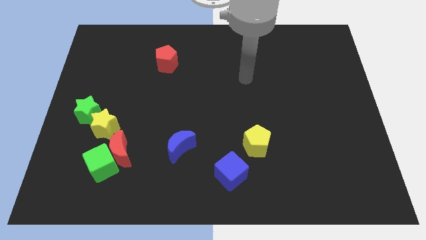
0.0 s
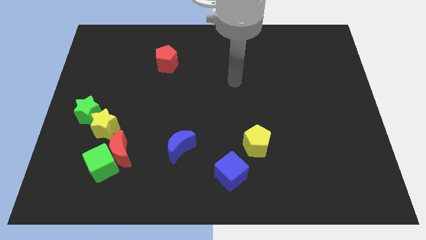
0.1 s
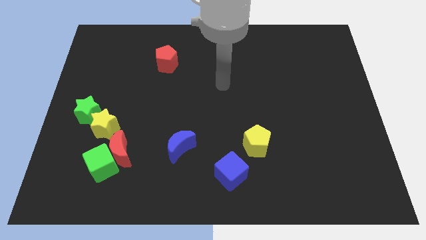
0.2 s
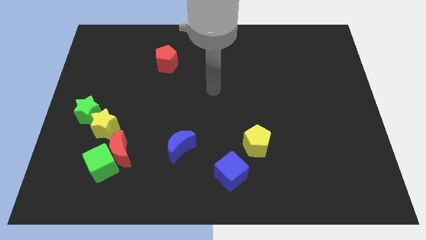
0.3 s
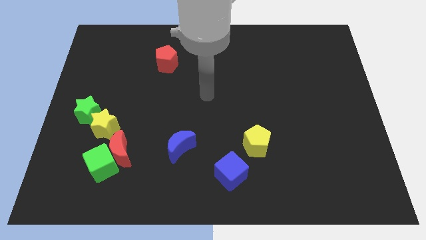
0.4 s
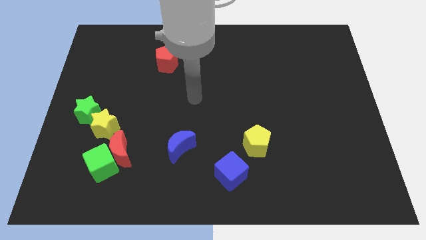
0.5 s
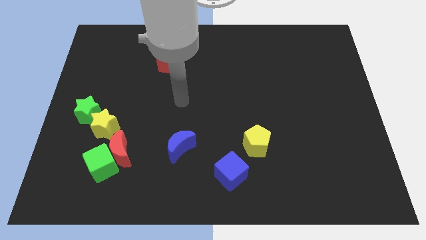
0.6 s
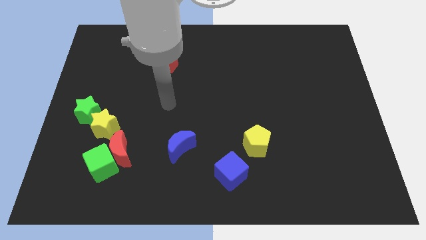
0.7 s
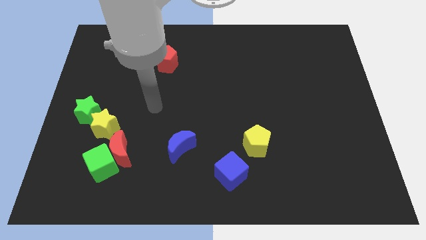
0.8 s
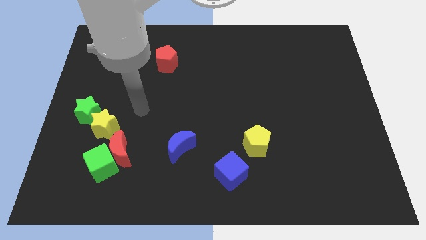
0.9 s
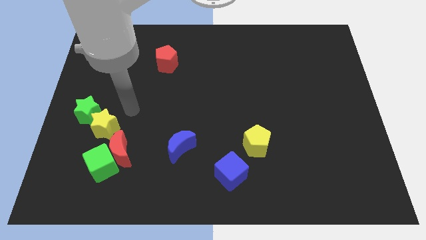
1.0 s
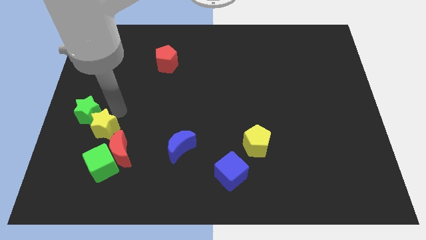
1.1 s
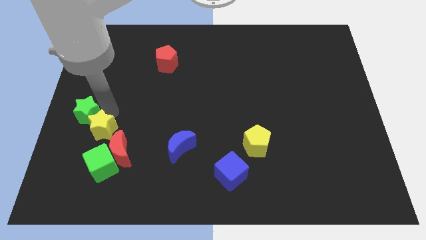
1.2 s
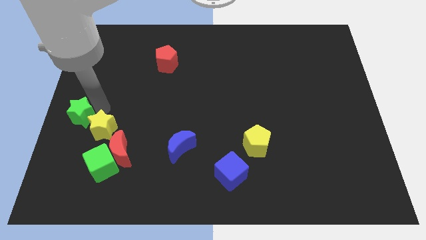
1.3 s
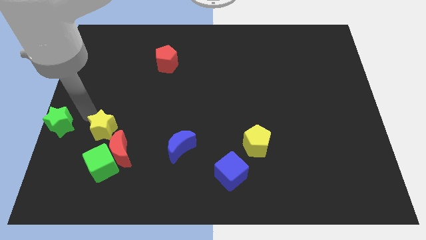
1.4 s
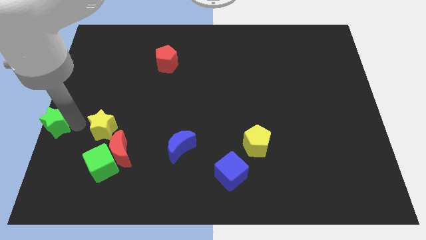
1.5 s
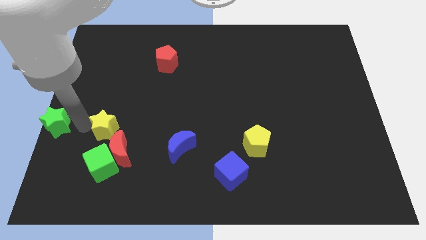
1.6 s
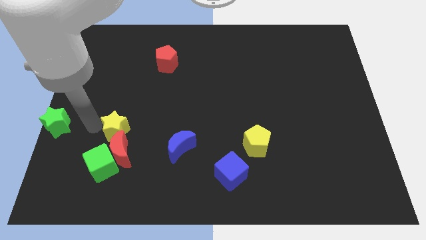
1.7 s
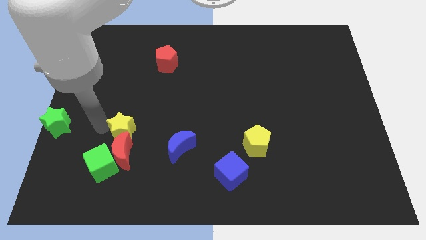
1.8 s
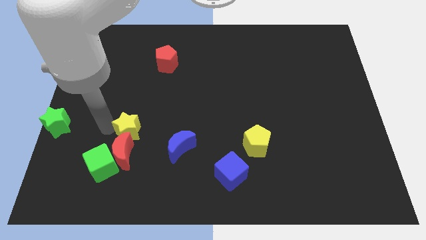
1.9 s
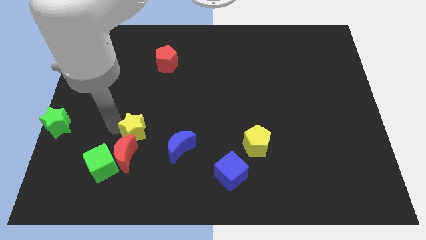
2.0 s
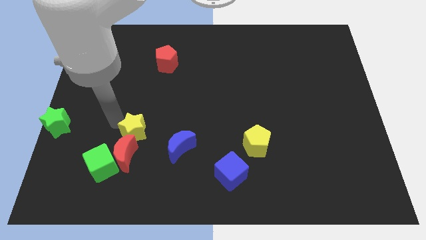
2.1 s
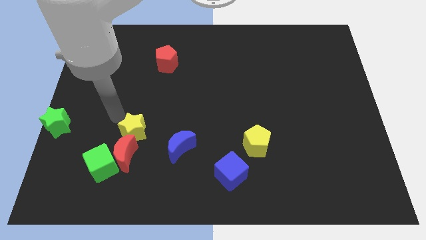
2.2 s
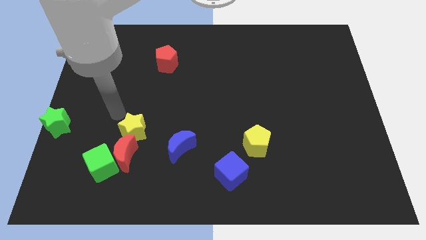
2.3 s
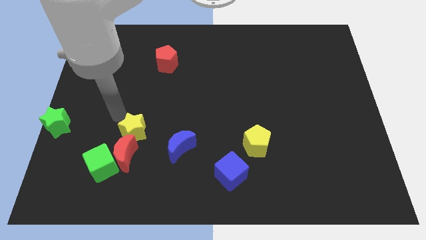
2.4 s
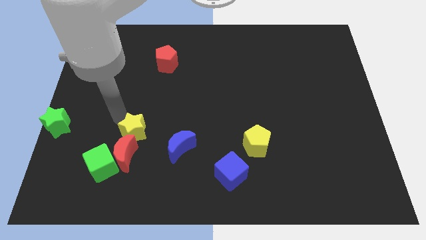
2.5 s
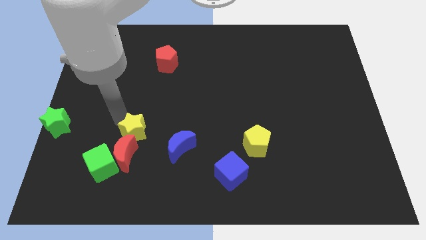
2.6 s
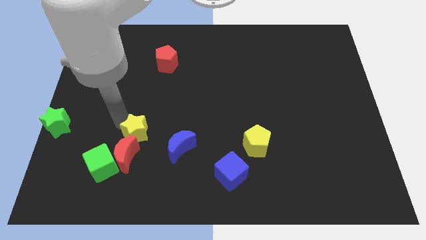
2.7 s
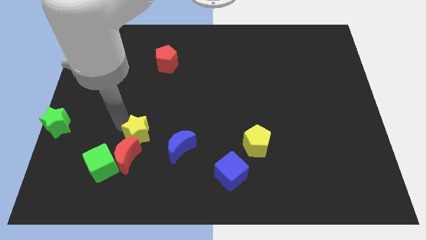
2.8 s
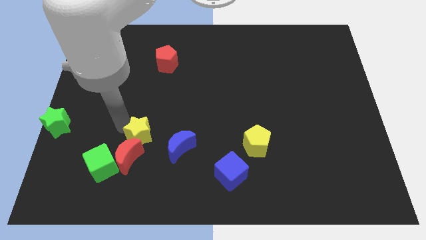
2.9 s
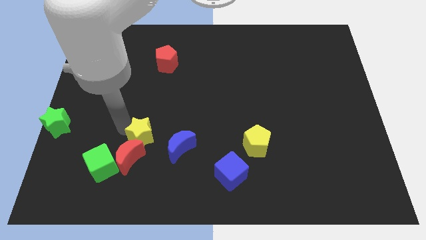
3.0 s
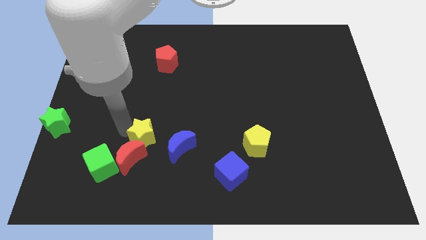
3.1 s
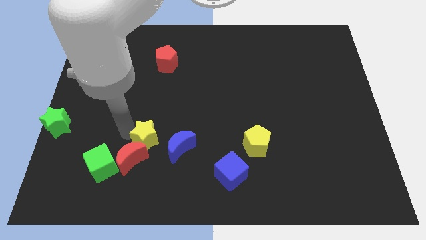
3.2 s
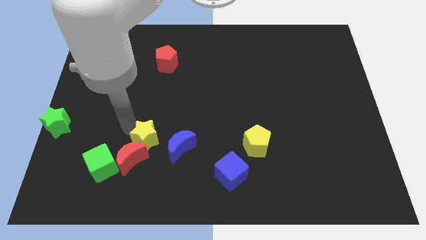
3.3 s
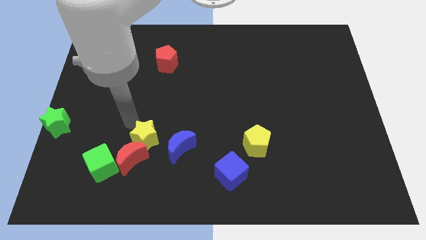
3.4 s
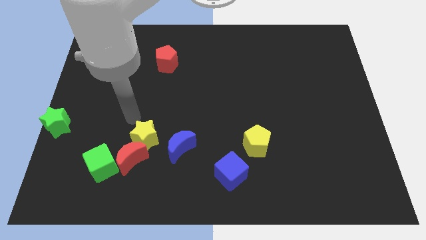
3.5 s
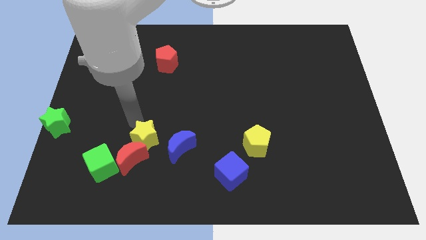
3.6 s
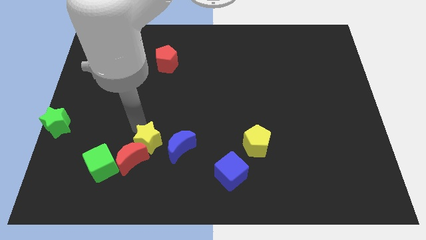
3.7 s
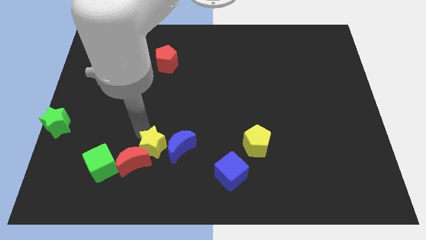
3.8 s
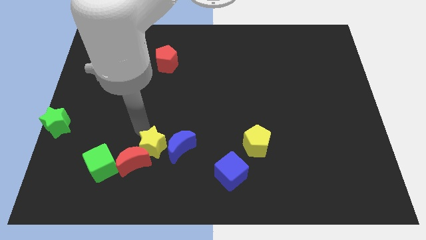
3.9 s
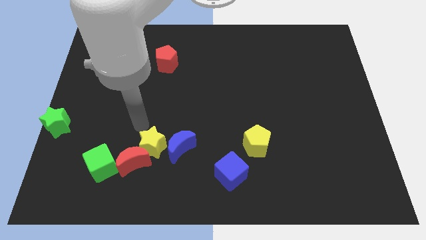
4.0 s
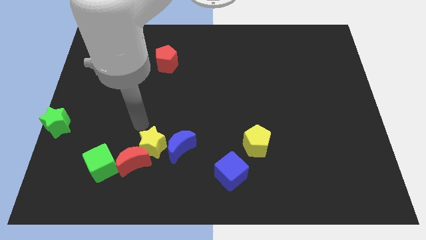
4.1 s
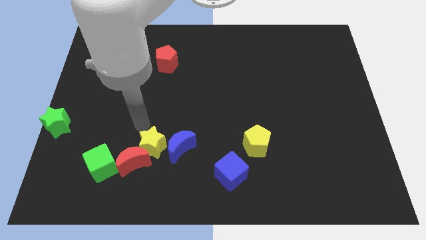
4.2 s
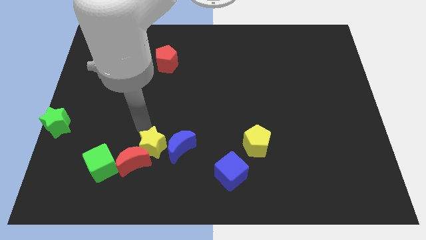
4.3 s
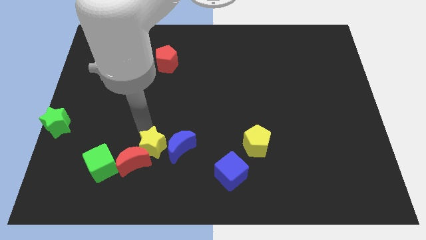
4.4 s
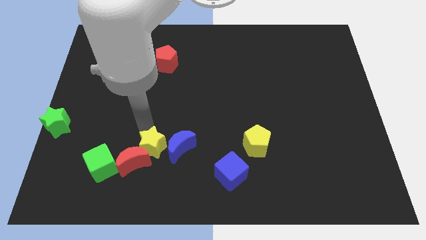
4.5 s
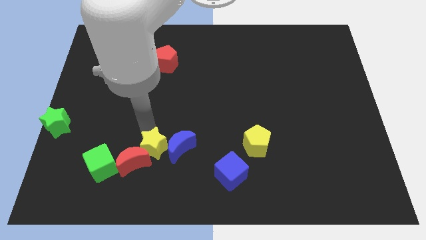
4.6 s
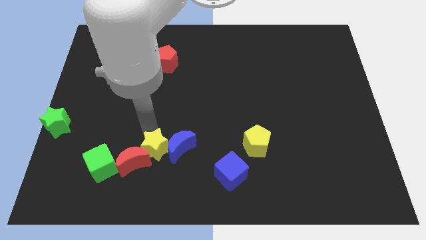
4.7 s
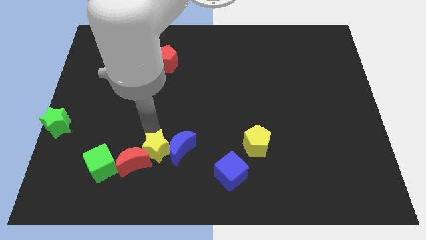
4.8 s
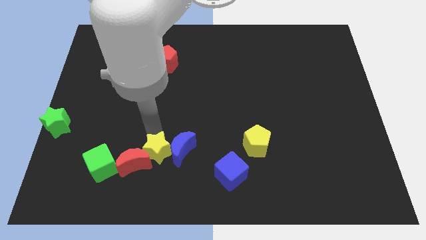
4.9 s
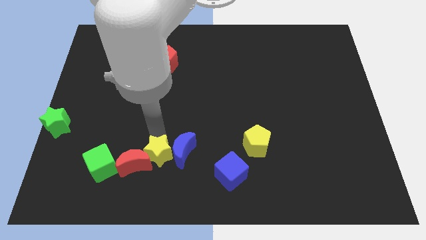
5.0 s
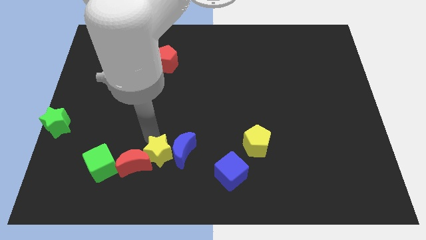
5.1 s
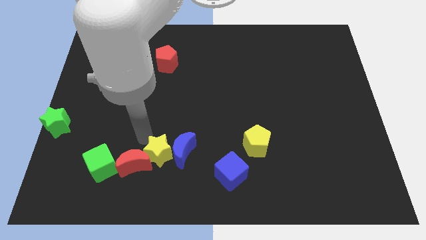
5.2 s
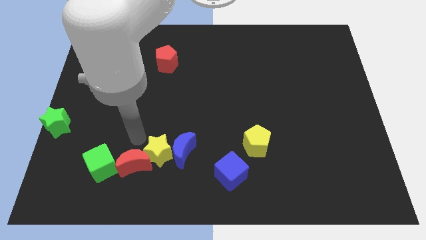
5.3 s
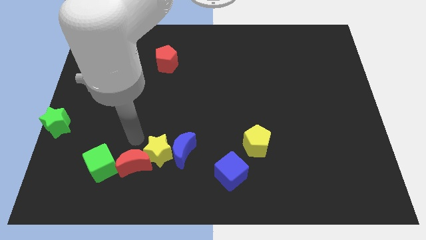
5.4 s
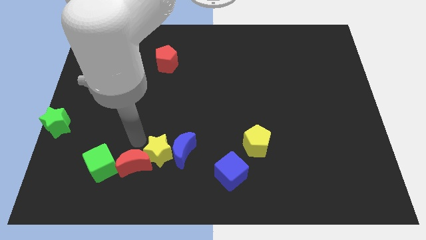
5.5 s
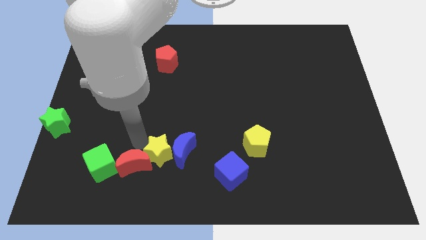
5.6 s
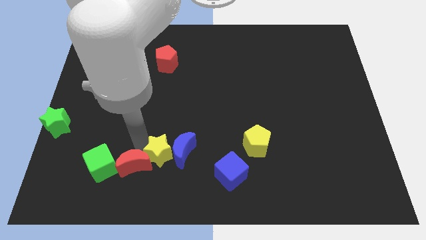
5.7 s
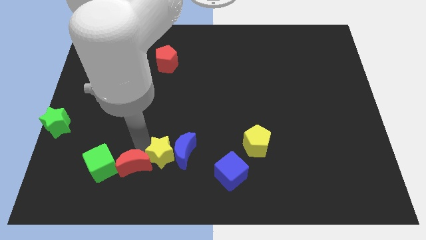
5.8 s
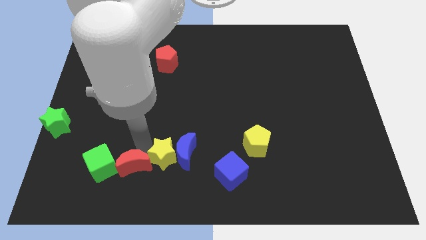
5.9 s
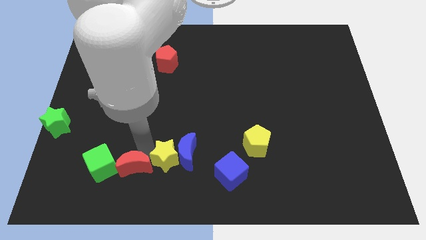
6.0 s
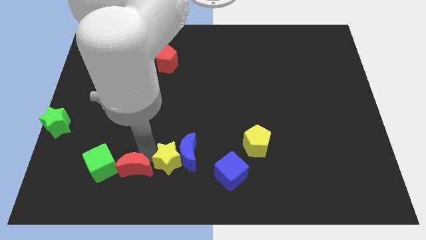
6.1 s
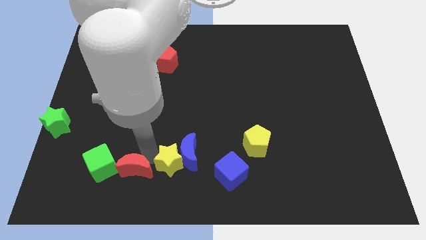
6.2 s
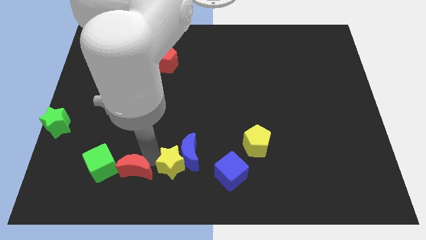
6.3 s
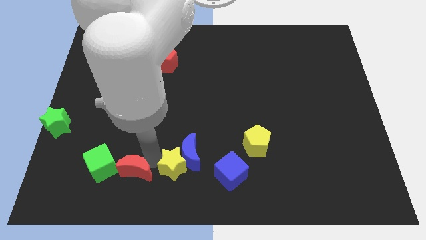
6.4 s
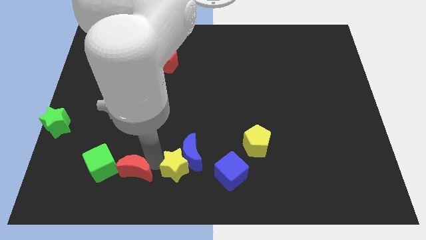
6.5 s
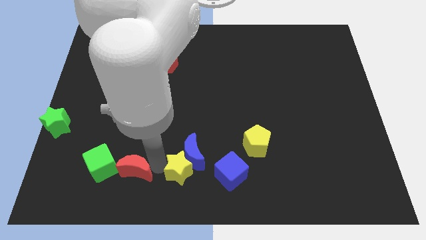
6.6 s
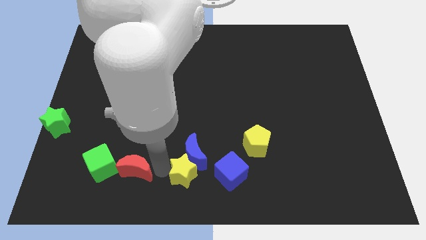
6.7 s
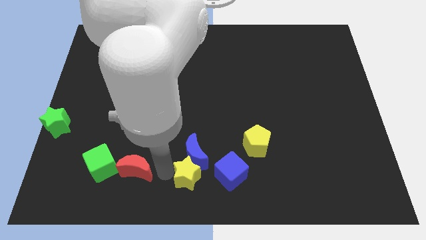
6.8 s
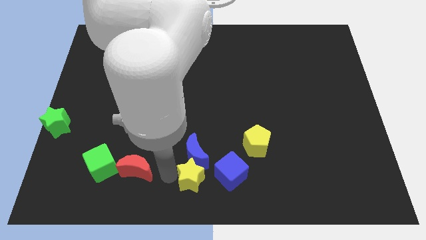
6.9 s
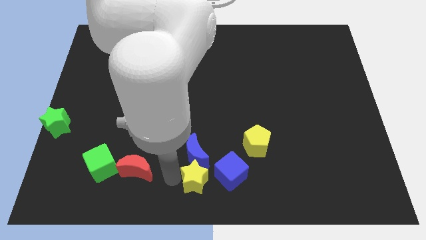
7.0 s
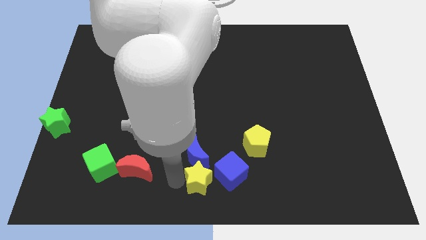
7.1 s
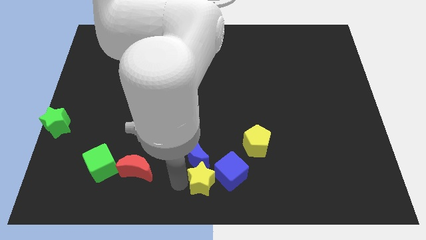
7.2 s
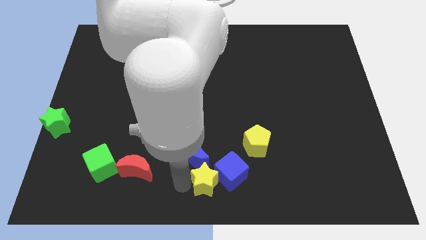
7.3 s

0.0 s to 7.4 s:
move the yellow star next to the blue cube
